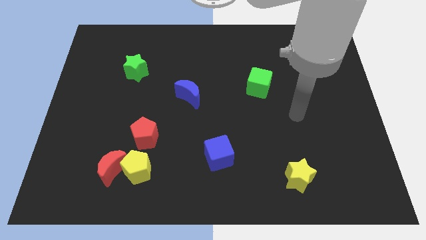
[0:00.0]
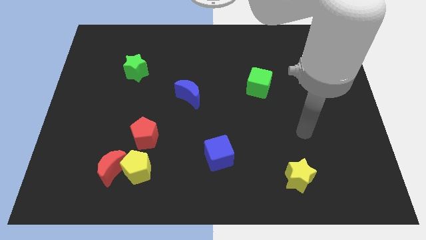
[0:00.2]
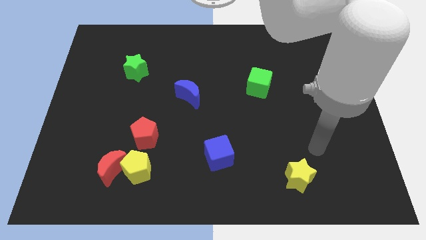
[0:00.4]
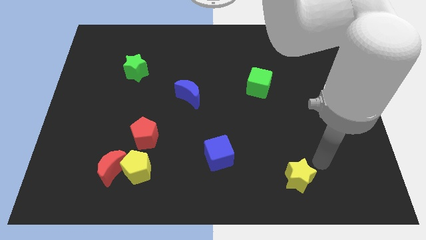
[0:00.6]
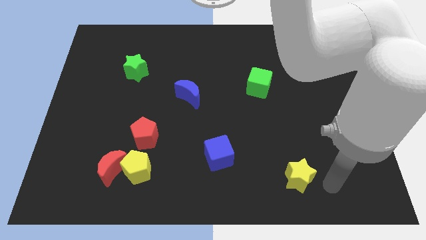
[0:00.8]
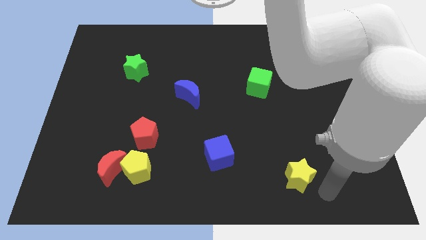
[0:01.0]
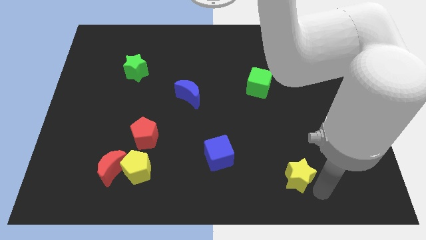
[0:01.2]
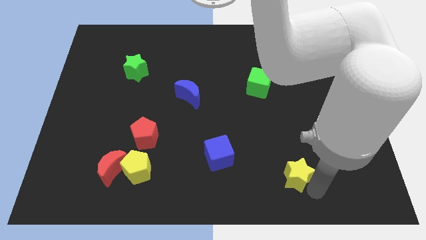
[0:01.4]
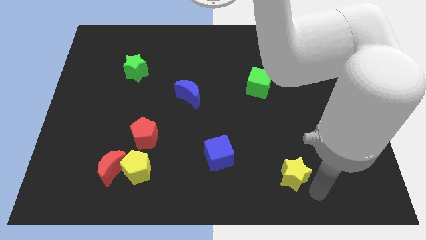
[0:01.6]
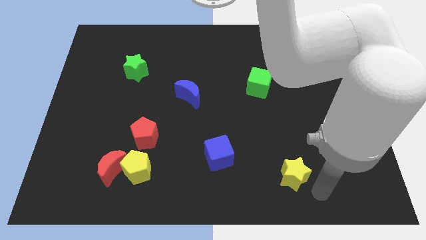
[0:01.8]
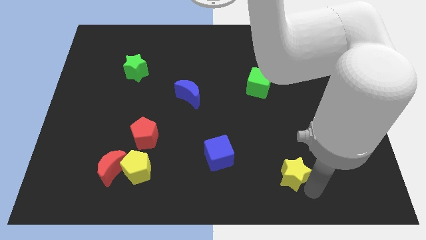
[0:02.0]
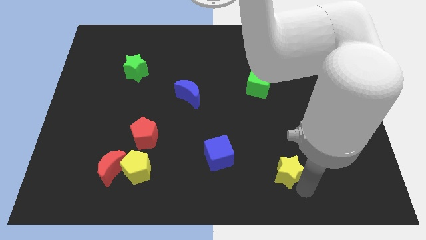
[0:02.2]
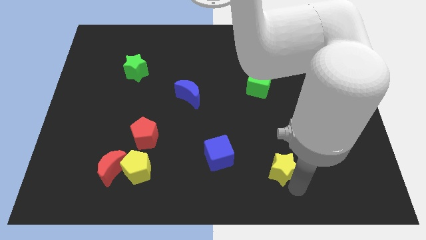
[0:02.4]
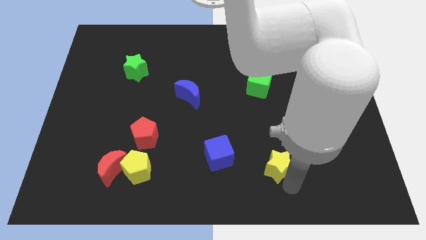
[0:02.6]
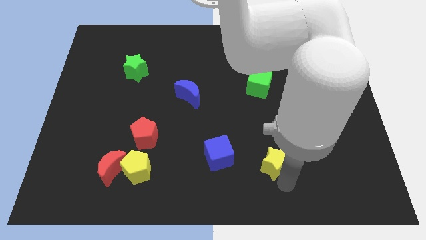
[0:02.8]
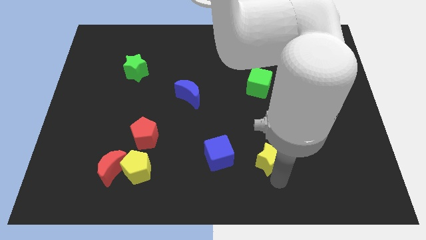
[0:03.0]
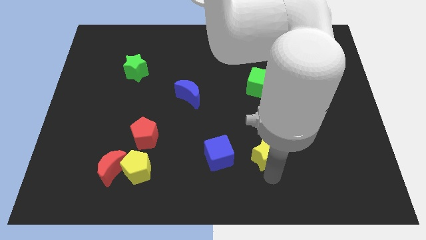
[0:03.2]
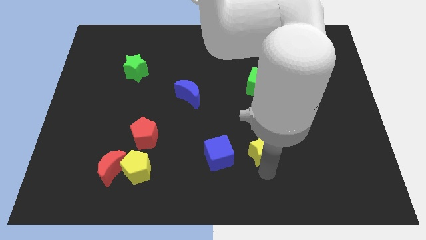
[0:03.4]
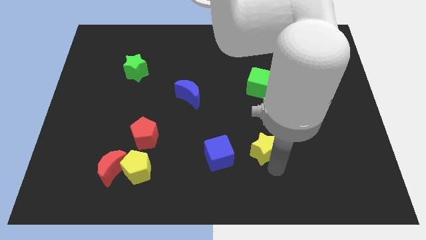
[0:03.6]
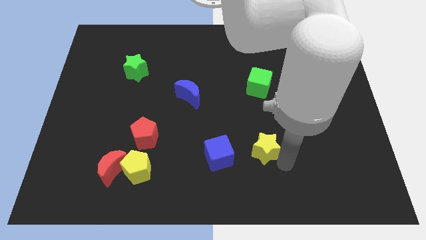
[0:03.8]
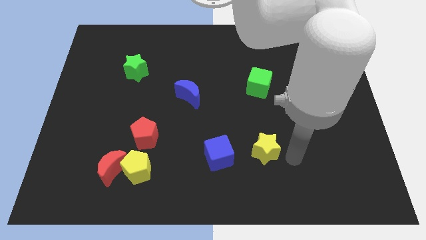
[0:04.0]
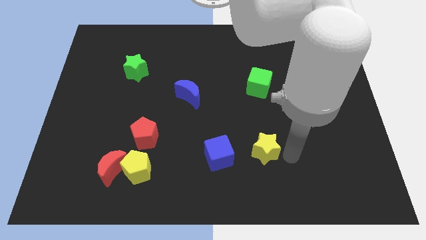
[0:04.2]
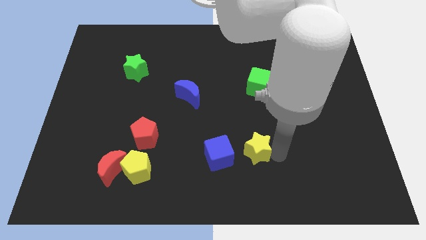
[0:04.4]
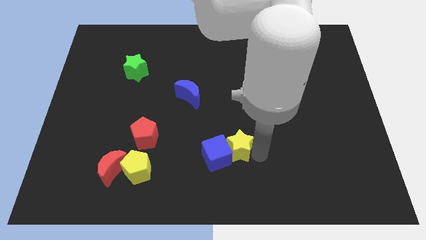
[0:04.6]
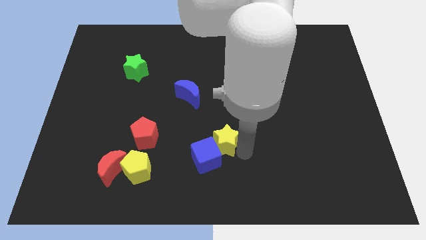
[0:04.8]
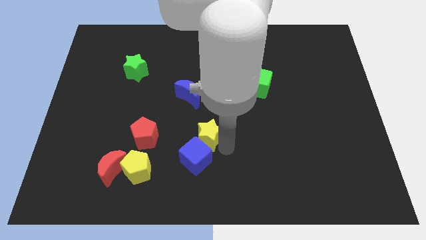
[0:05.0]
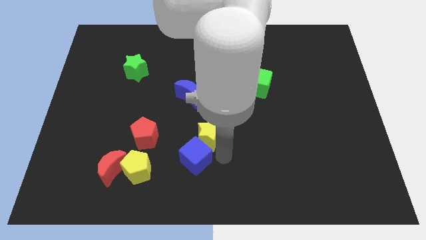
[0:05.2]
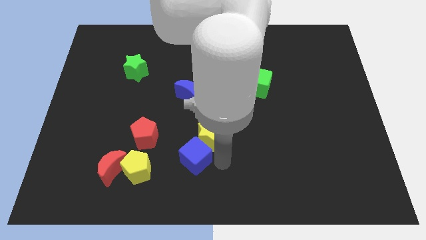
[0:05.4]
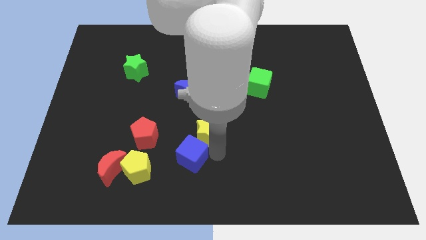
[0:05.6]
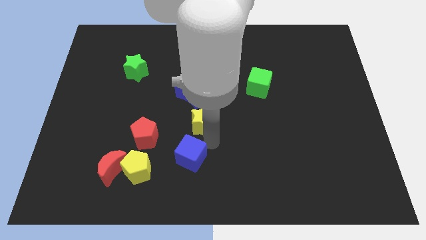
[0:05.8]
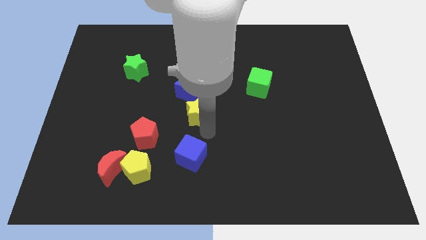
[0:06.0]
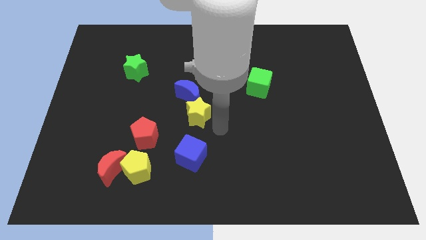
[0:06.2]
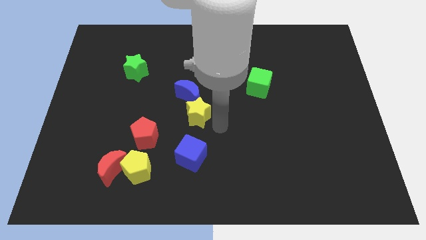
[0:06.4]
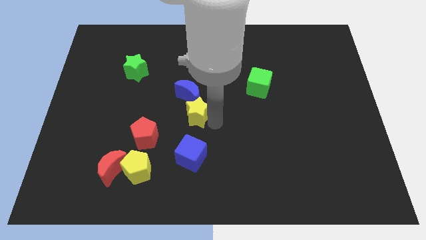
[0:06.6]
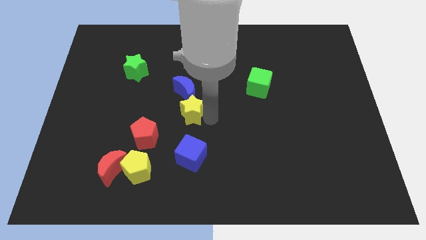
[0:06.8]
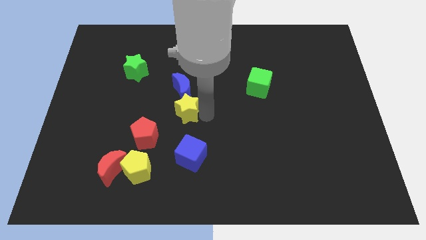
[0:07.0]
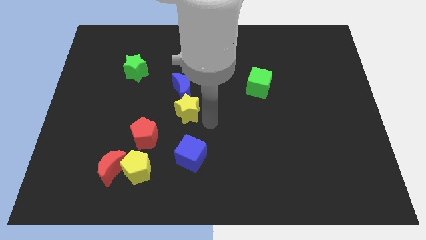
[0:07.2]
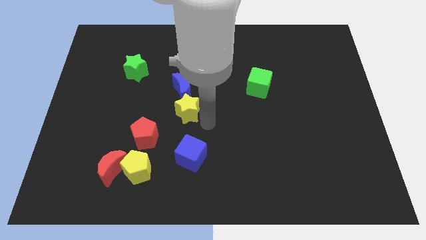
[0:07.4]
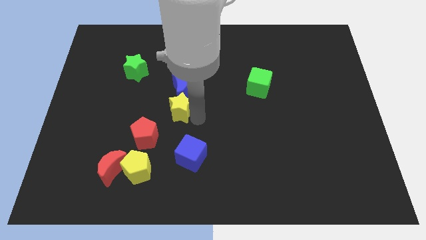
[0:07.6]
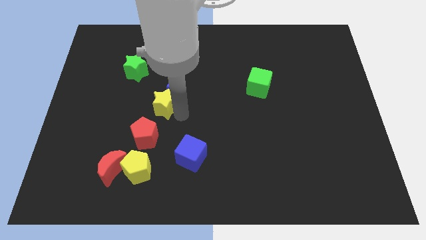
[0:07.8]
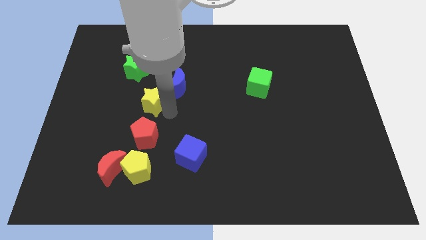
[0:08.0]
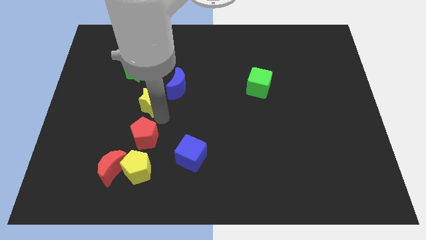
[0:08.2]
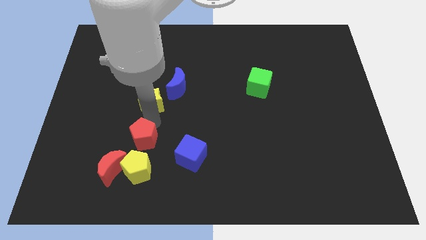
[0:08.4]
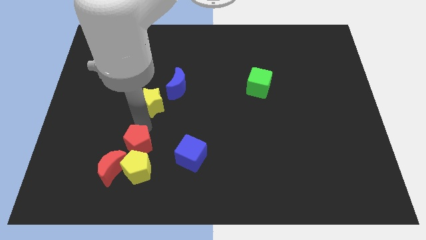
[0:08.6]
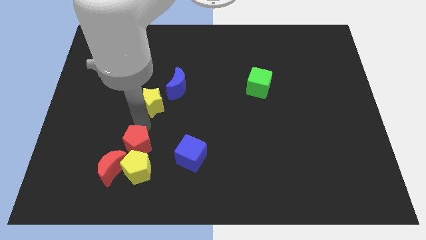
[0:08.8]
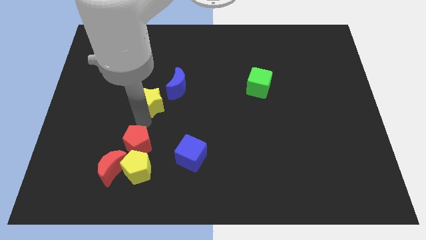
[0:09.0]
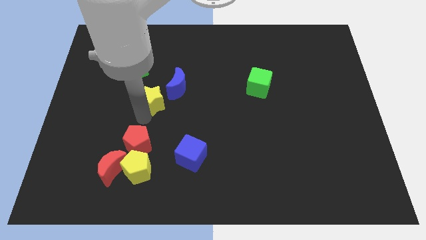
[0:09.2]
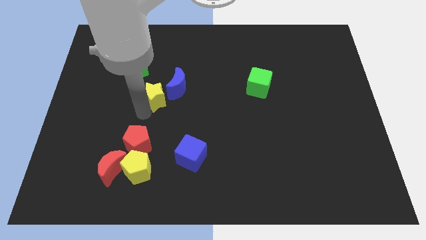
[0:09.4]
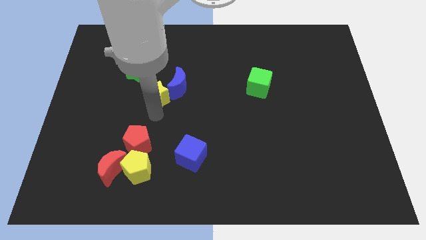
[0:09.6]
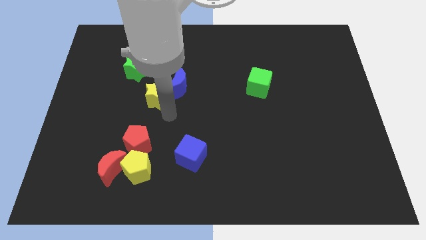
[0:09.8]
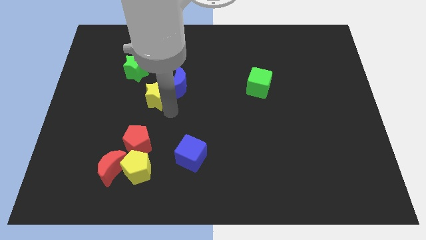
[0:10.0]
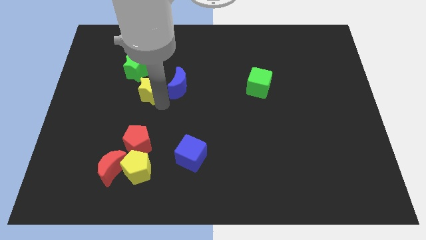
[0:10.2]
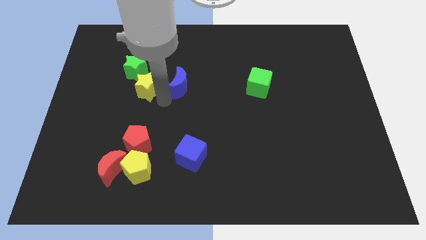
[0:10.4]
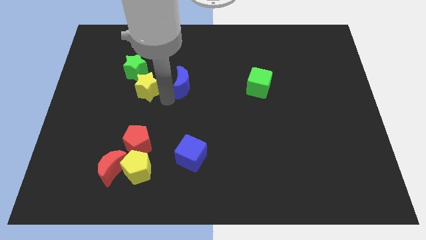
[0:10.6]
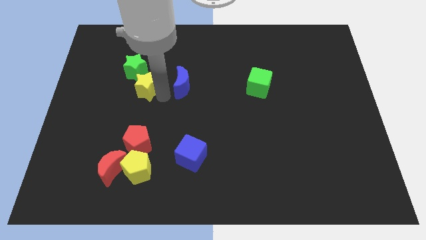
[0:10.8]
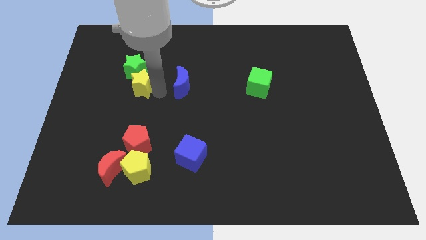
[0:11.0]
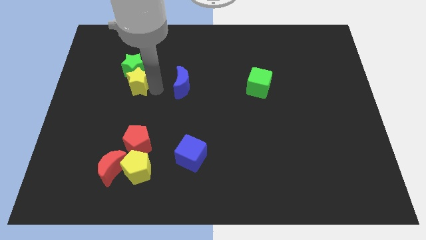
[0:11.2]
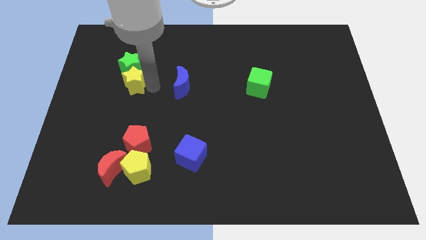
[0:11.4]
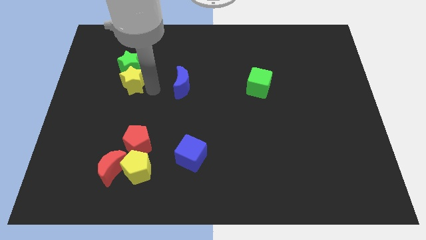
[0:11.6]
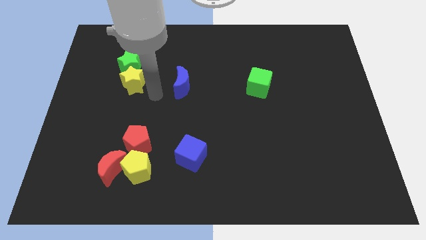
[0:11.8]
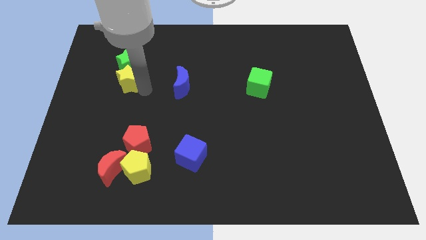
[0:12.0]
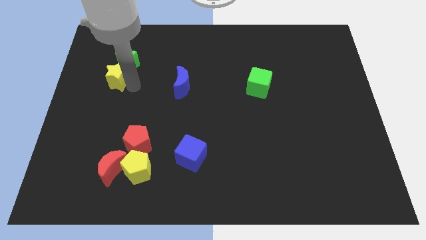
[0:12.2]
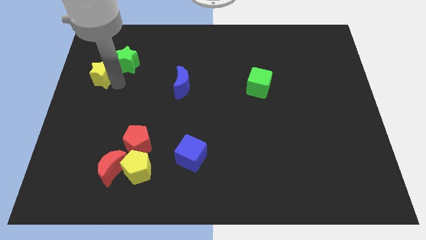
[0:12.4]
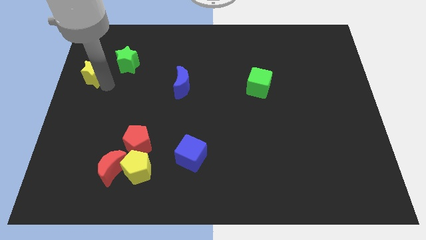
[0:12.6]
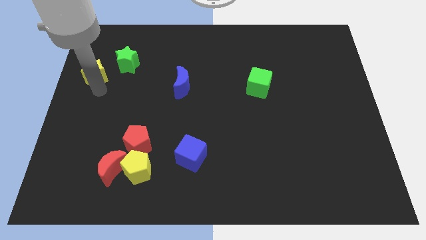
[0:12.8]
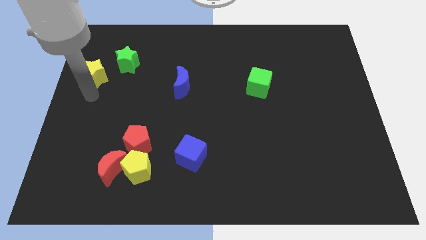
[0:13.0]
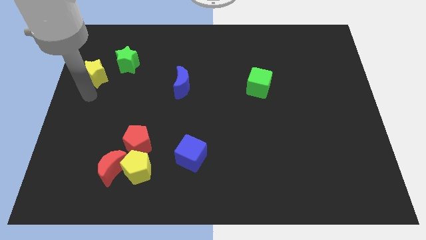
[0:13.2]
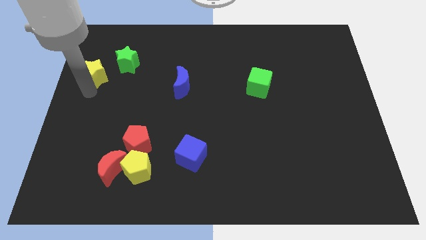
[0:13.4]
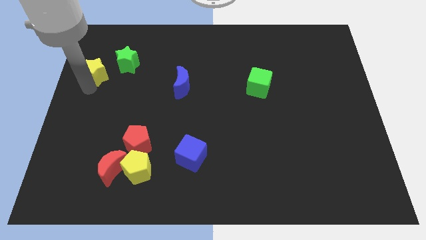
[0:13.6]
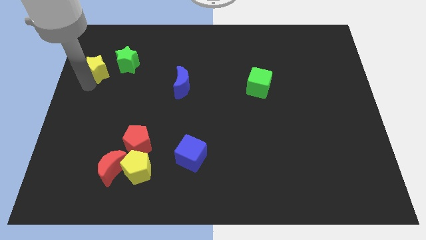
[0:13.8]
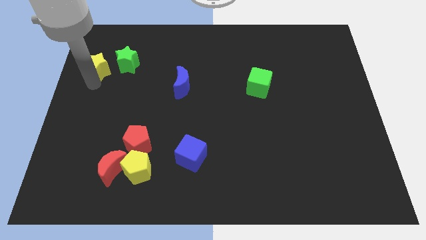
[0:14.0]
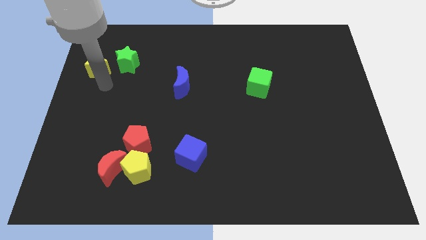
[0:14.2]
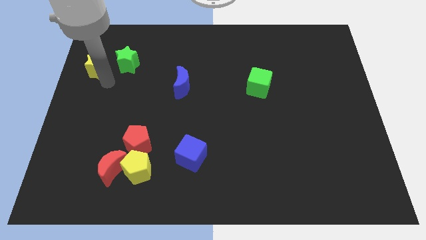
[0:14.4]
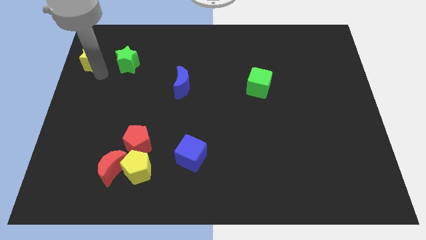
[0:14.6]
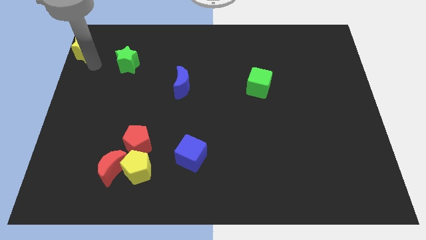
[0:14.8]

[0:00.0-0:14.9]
put the yellow star to the top left of the board
